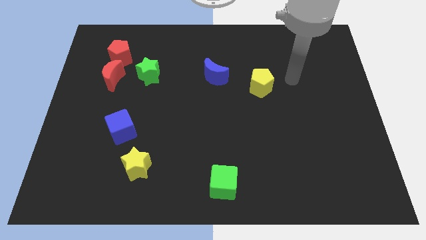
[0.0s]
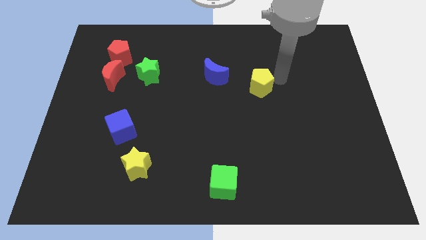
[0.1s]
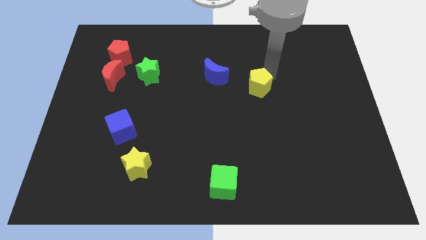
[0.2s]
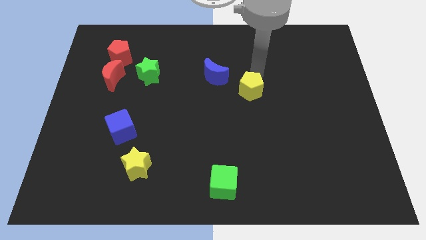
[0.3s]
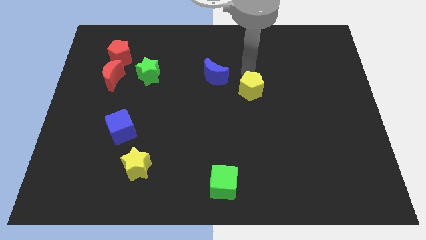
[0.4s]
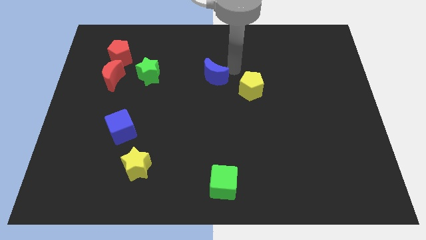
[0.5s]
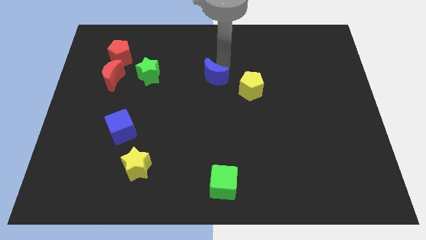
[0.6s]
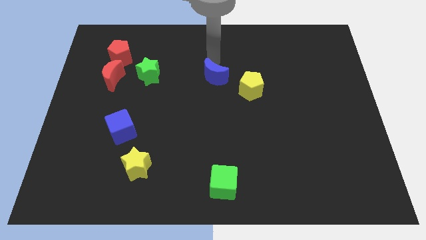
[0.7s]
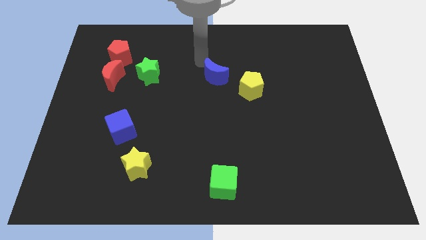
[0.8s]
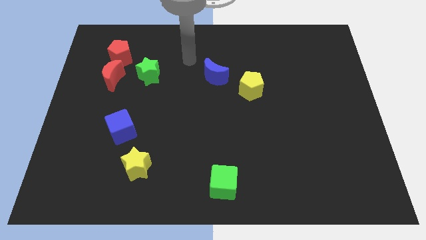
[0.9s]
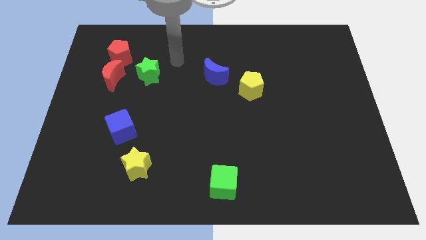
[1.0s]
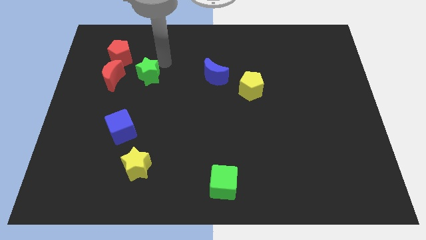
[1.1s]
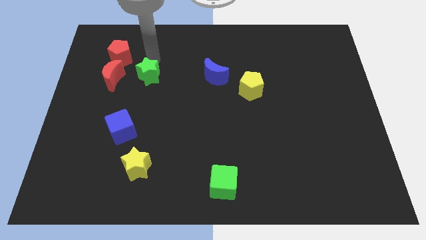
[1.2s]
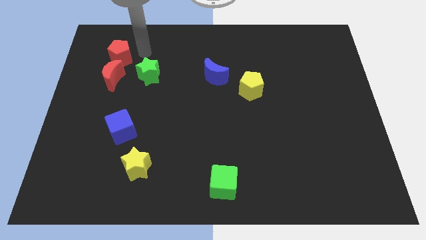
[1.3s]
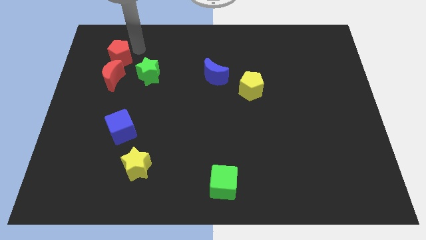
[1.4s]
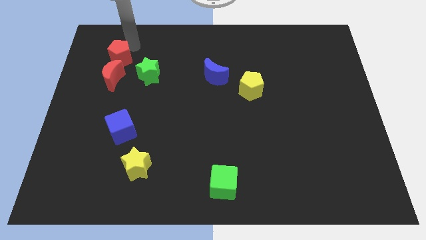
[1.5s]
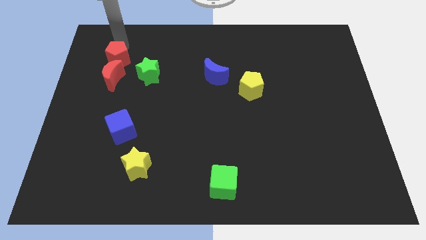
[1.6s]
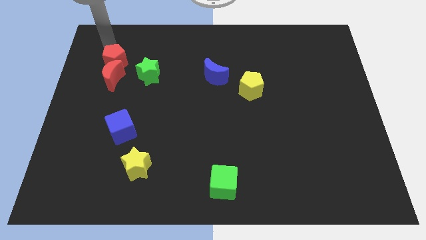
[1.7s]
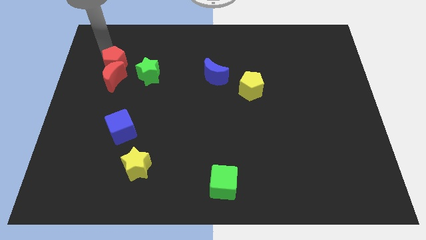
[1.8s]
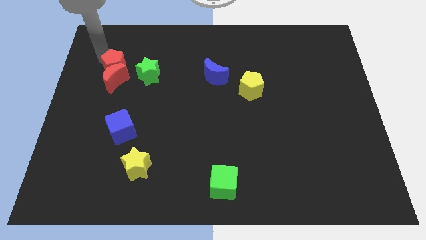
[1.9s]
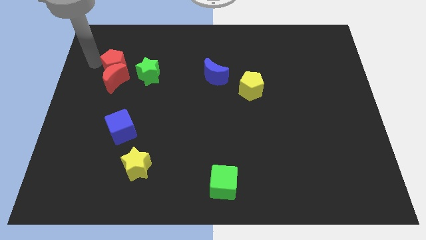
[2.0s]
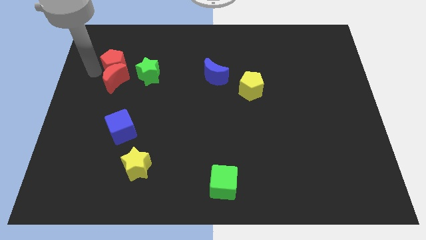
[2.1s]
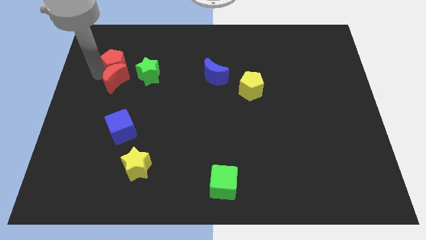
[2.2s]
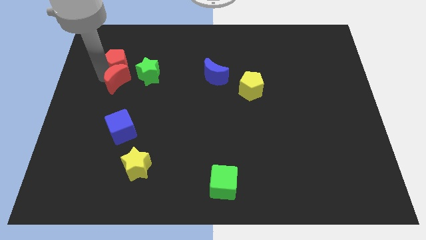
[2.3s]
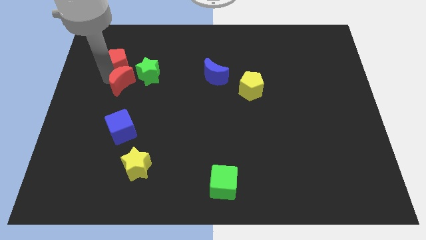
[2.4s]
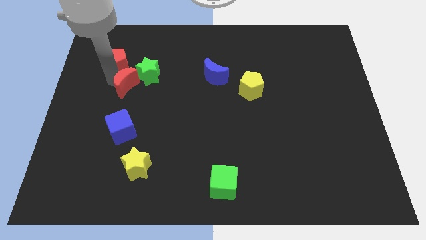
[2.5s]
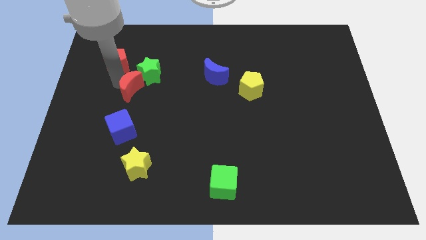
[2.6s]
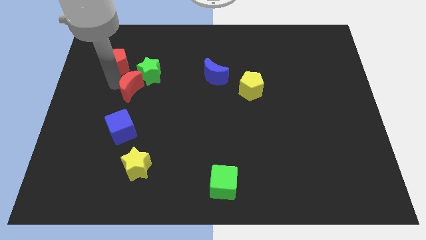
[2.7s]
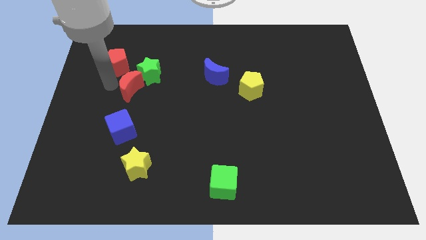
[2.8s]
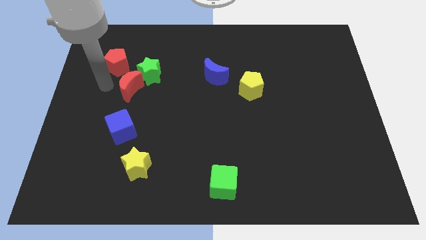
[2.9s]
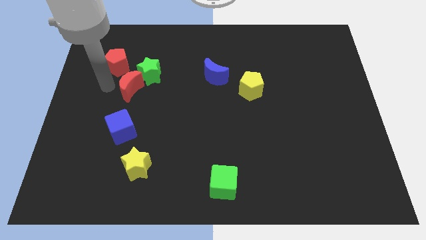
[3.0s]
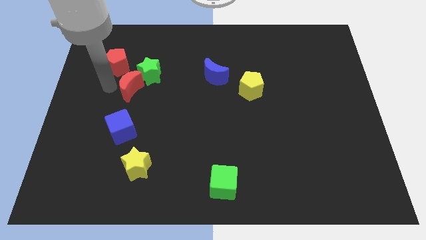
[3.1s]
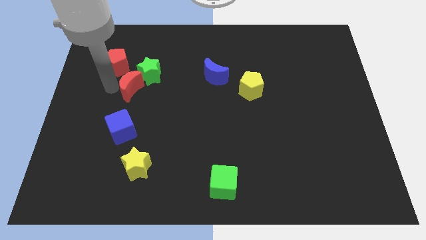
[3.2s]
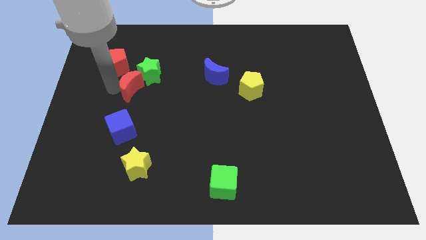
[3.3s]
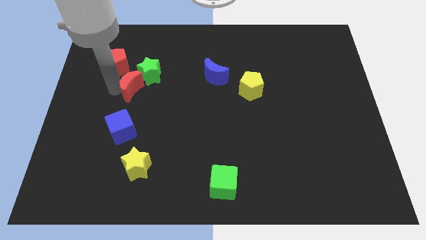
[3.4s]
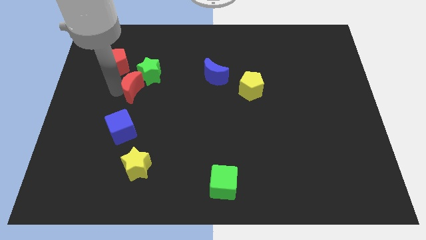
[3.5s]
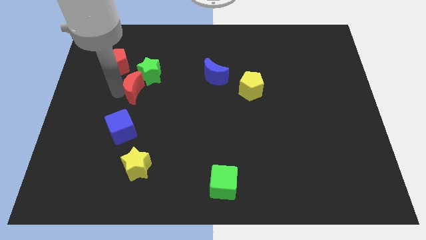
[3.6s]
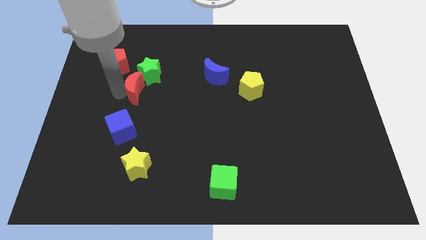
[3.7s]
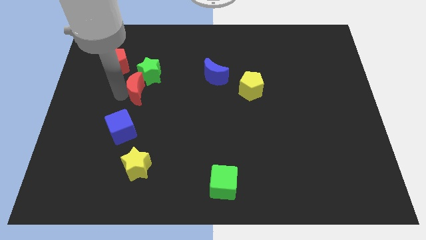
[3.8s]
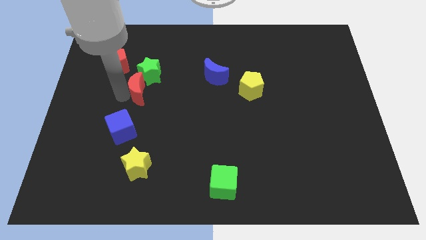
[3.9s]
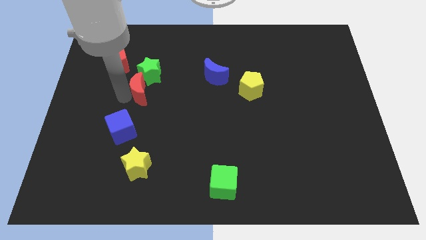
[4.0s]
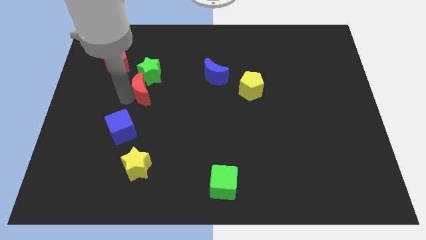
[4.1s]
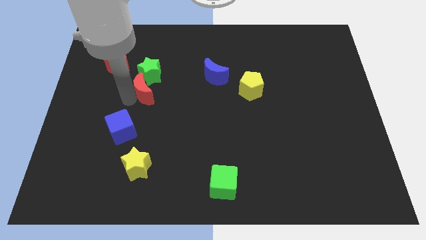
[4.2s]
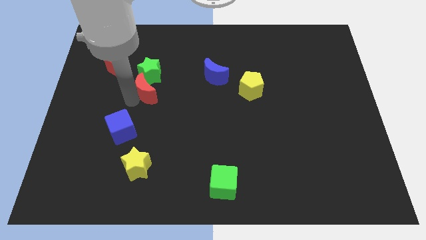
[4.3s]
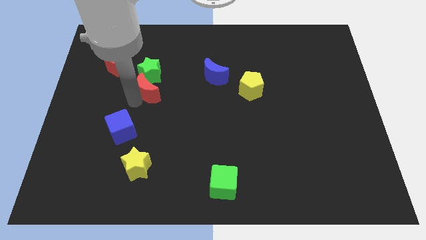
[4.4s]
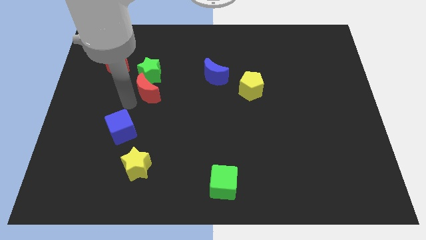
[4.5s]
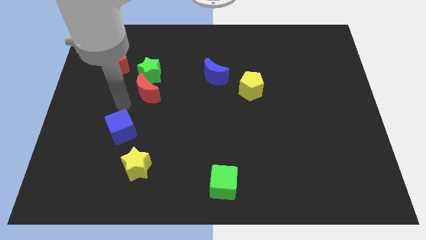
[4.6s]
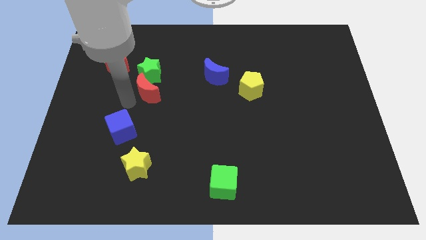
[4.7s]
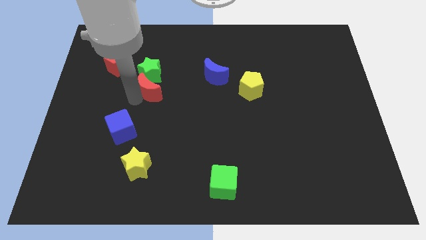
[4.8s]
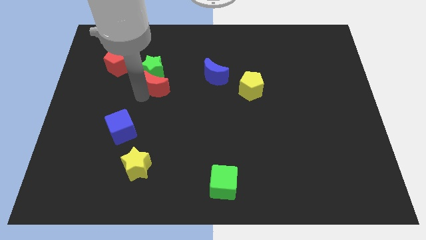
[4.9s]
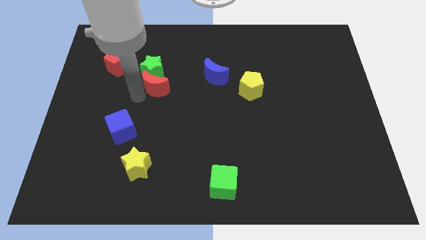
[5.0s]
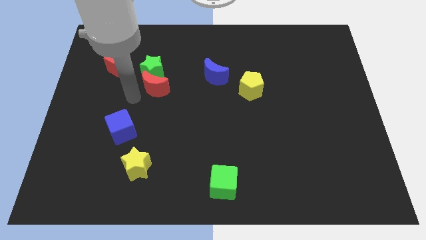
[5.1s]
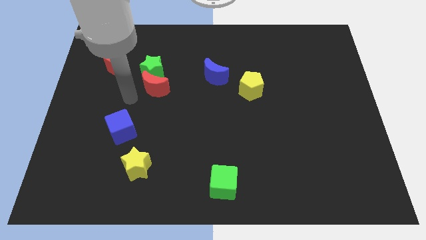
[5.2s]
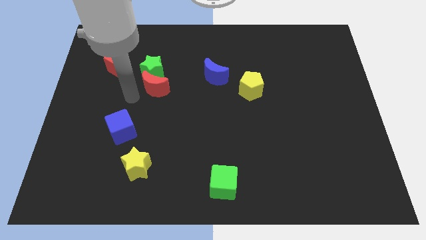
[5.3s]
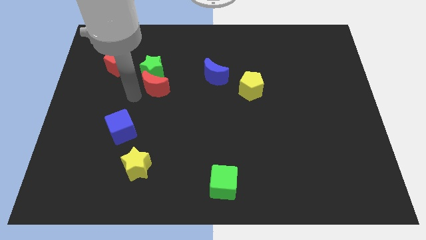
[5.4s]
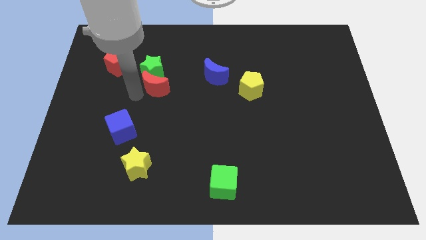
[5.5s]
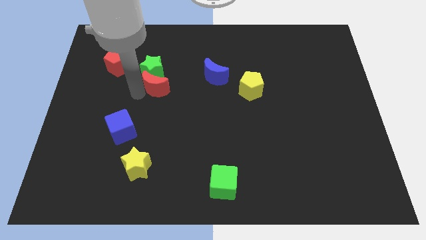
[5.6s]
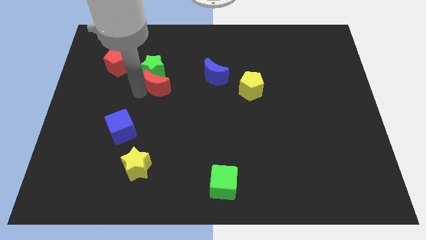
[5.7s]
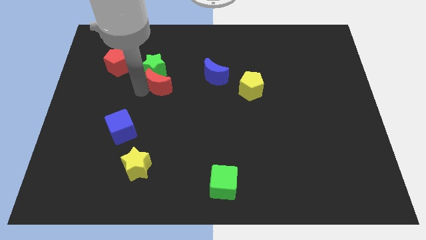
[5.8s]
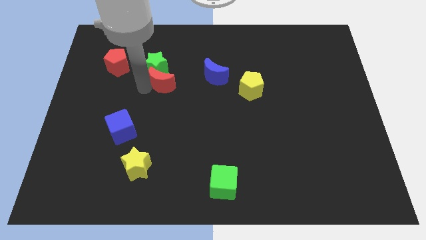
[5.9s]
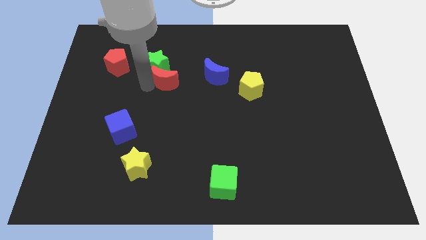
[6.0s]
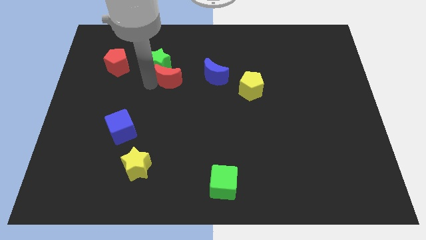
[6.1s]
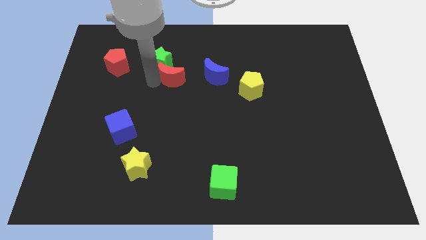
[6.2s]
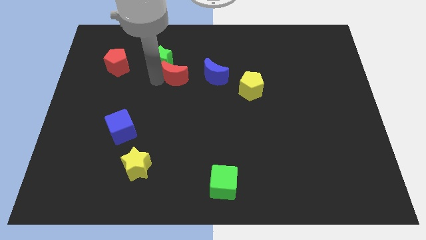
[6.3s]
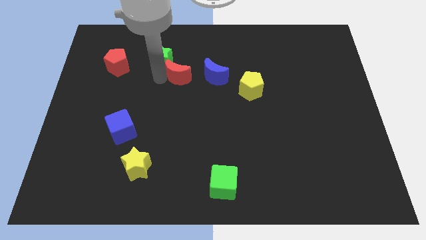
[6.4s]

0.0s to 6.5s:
push the red moon to the right of the green star

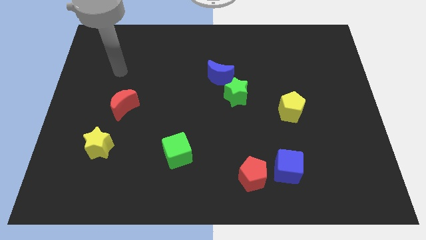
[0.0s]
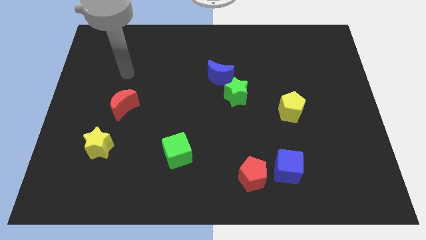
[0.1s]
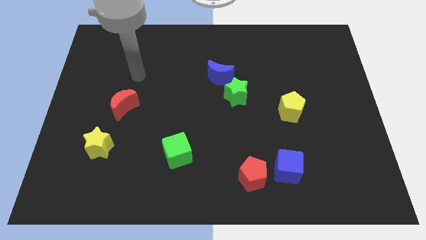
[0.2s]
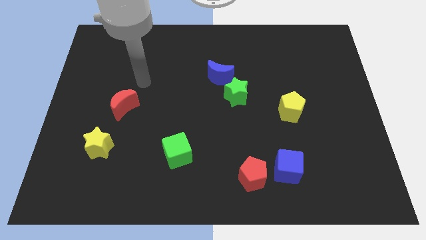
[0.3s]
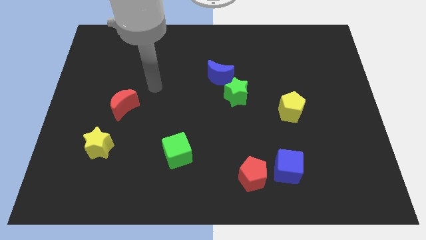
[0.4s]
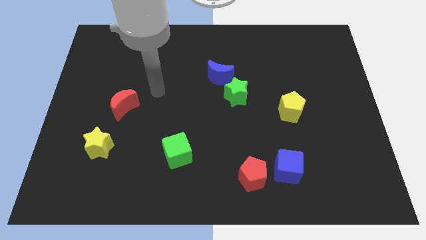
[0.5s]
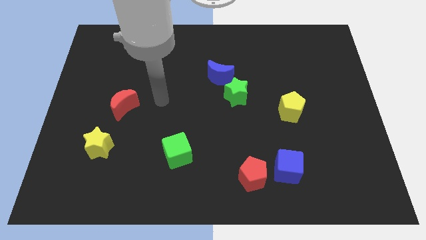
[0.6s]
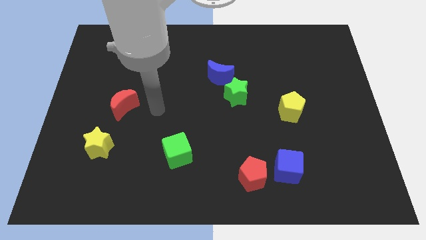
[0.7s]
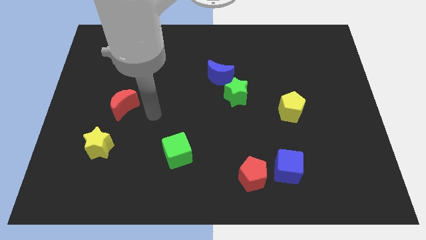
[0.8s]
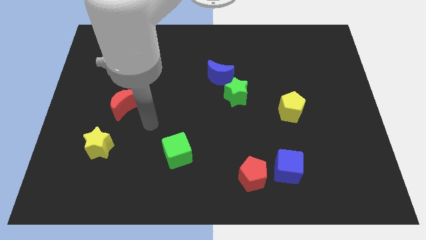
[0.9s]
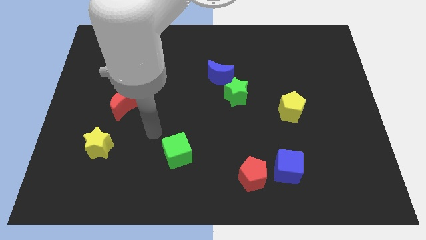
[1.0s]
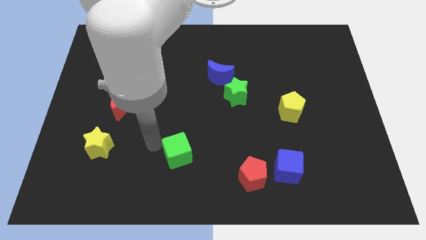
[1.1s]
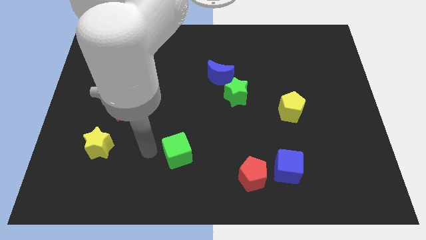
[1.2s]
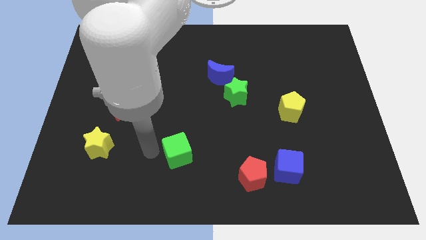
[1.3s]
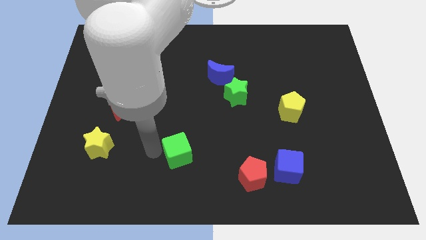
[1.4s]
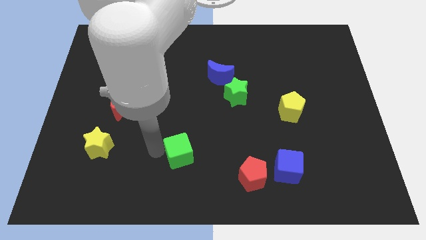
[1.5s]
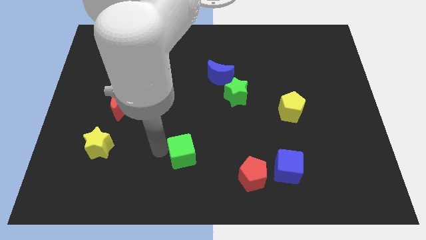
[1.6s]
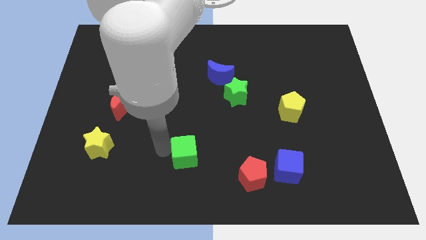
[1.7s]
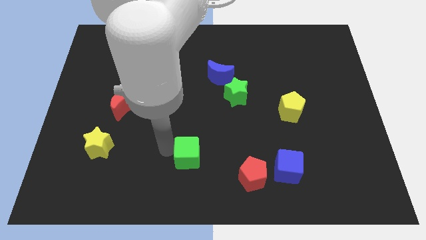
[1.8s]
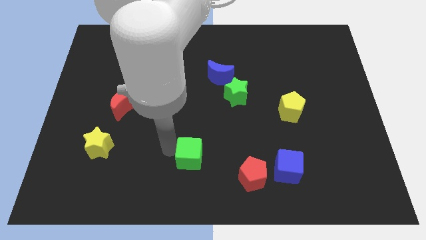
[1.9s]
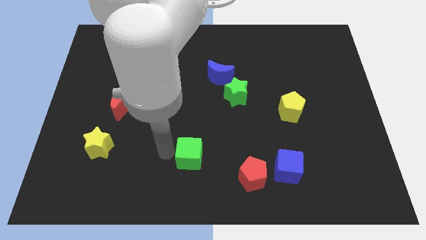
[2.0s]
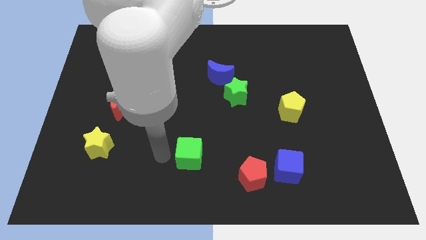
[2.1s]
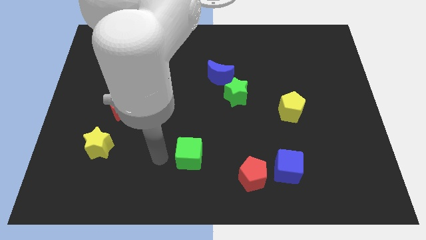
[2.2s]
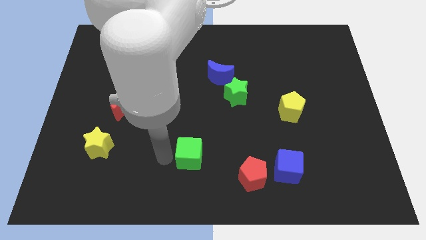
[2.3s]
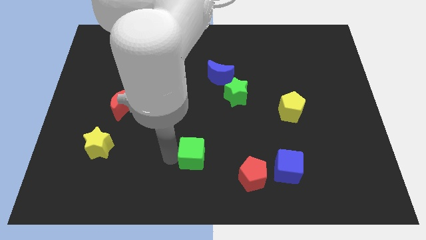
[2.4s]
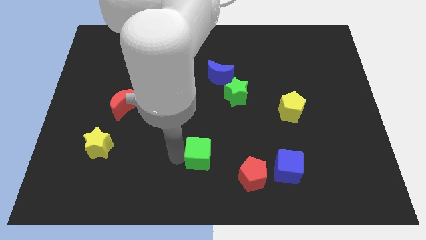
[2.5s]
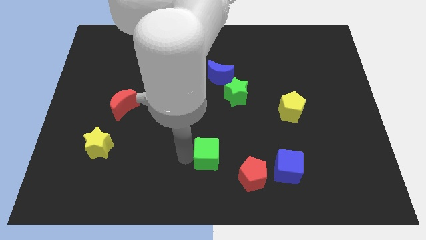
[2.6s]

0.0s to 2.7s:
slide the green cube to the top left side of the red pentagon
